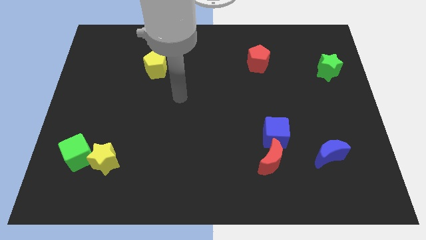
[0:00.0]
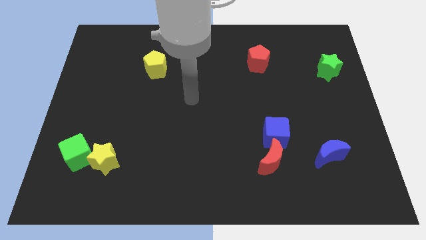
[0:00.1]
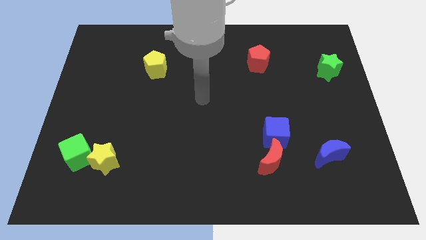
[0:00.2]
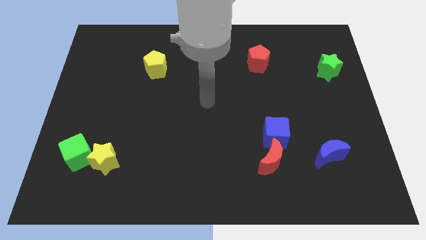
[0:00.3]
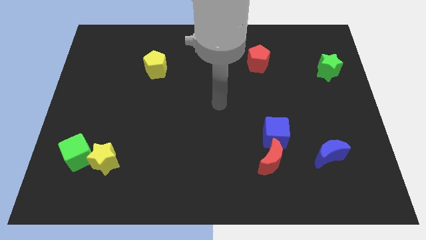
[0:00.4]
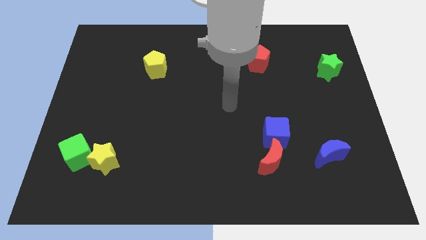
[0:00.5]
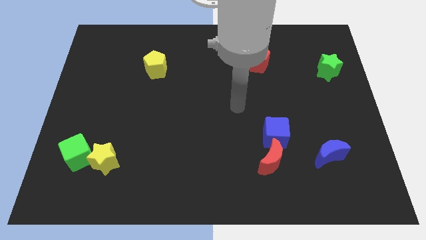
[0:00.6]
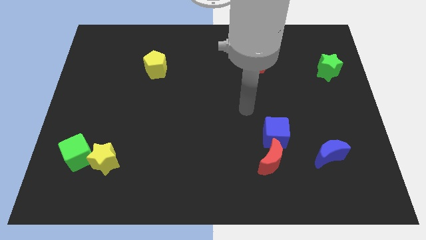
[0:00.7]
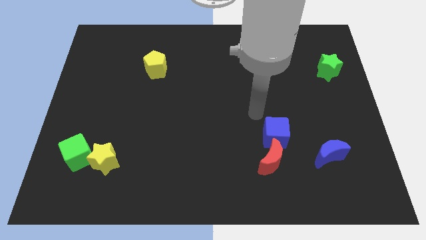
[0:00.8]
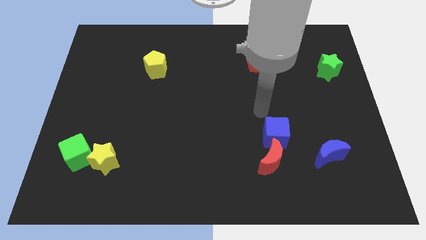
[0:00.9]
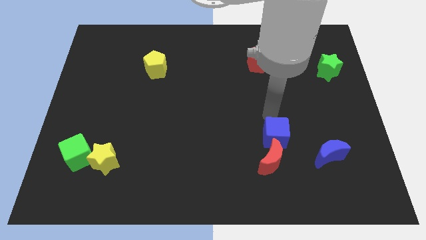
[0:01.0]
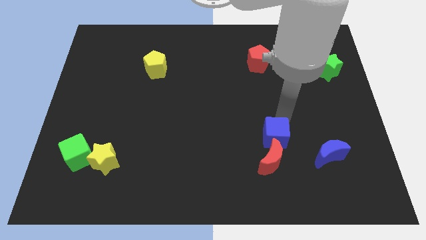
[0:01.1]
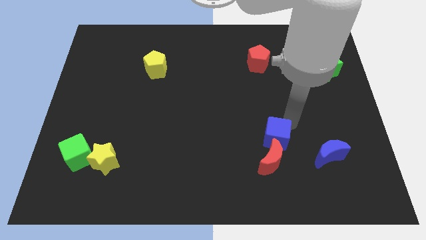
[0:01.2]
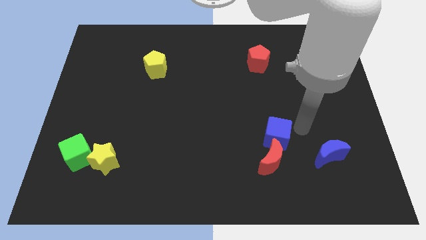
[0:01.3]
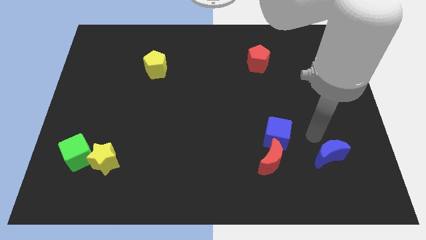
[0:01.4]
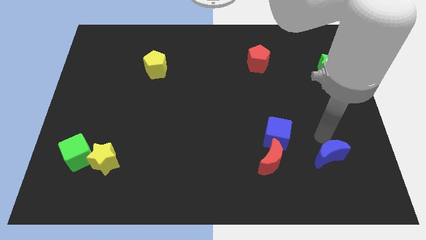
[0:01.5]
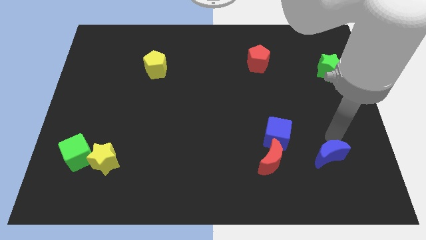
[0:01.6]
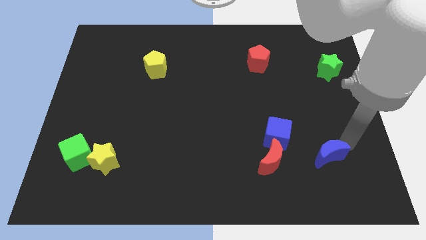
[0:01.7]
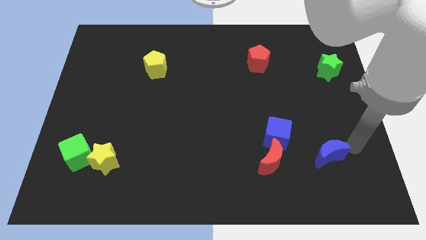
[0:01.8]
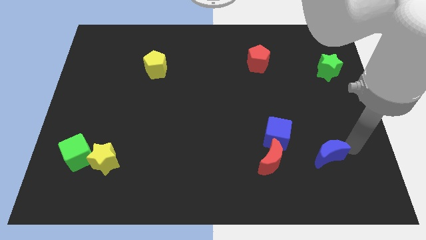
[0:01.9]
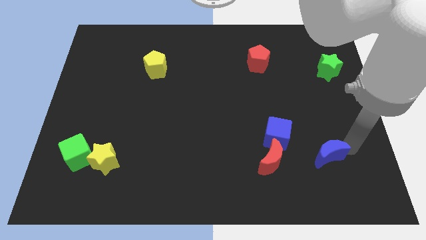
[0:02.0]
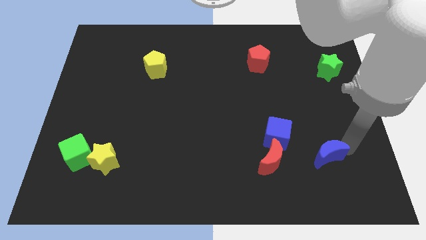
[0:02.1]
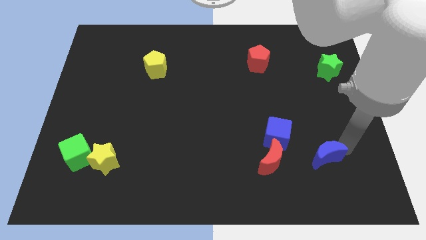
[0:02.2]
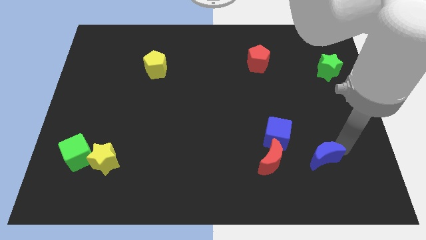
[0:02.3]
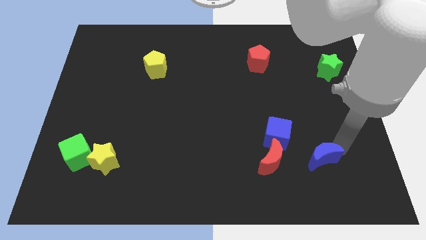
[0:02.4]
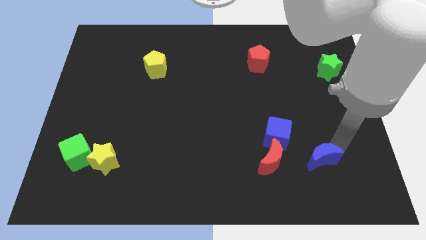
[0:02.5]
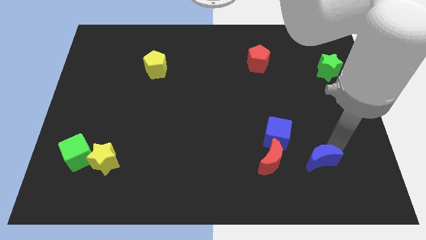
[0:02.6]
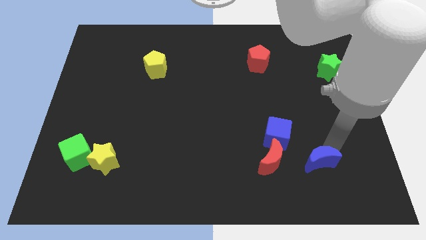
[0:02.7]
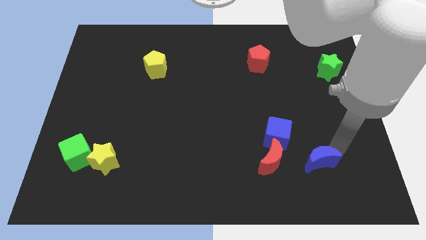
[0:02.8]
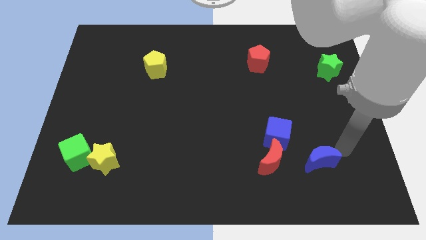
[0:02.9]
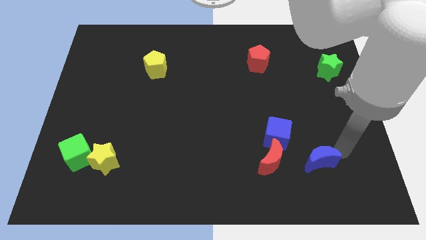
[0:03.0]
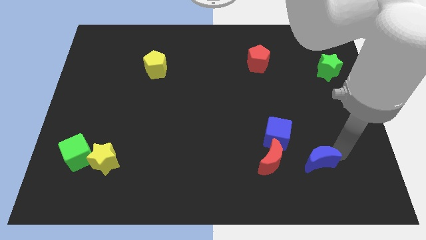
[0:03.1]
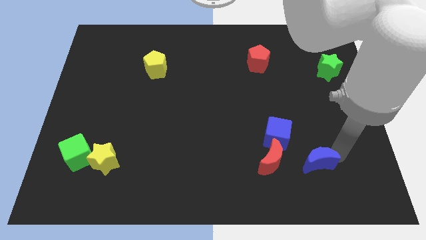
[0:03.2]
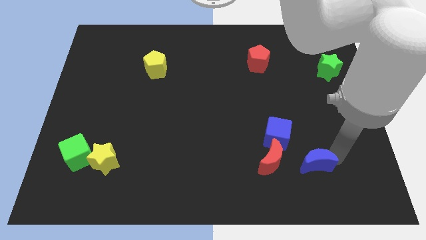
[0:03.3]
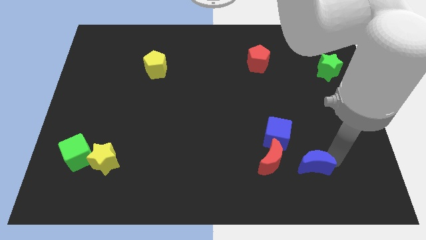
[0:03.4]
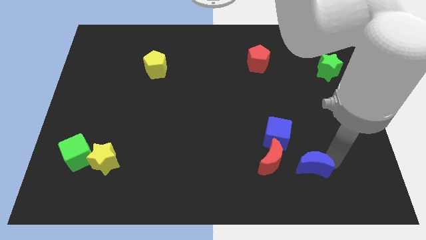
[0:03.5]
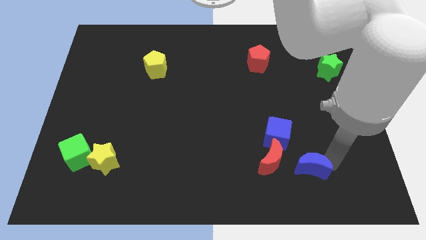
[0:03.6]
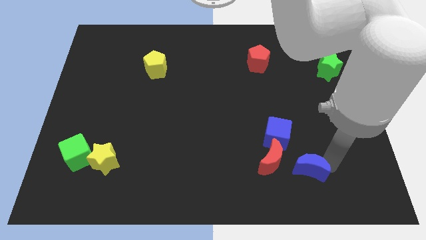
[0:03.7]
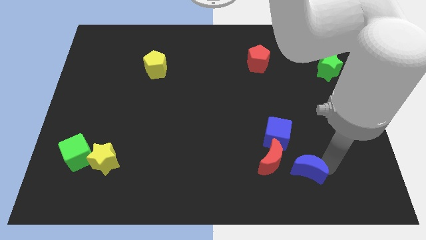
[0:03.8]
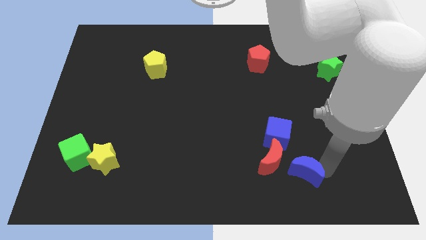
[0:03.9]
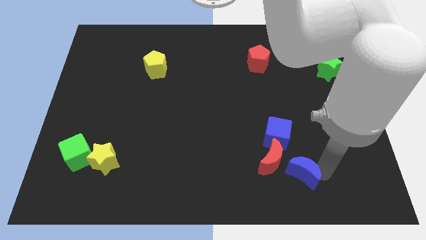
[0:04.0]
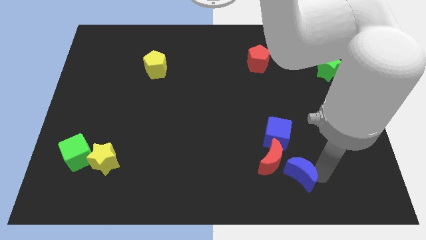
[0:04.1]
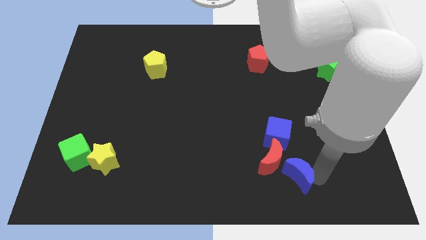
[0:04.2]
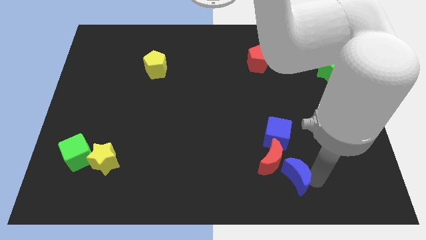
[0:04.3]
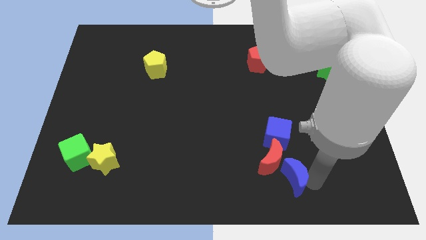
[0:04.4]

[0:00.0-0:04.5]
push the blue moon a bit left

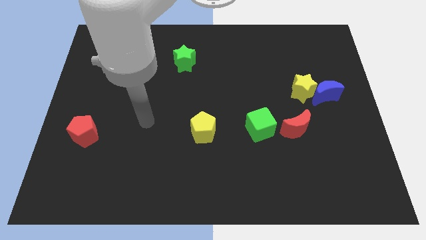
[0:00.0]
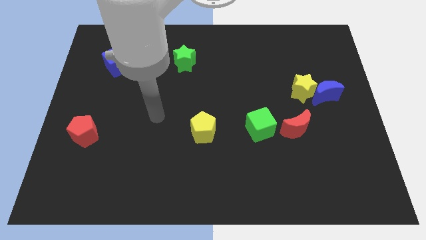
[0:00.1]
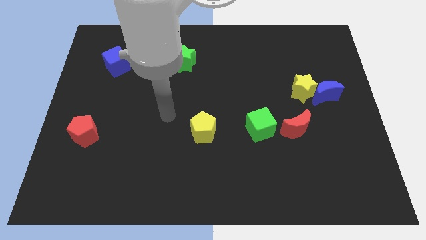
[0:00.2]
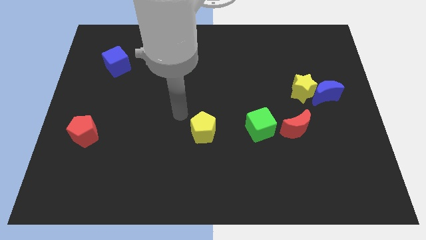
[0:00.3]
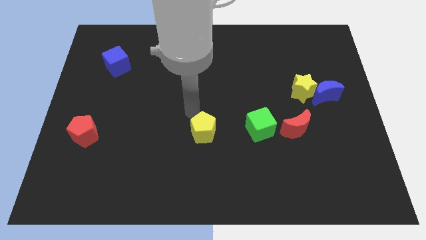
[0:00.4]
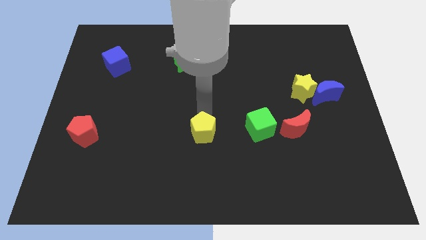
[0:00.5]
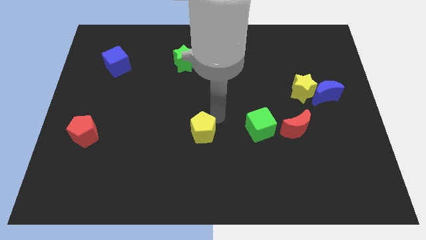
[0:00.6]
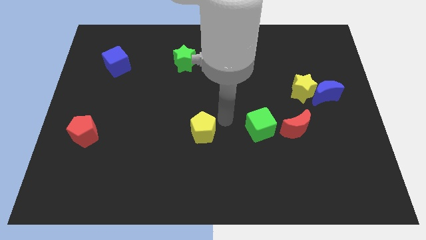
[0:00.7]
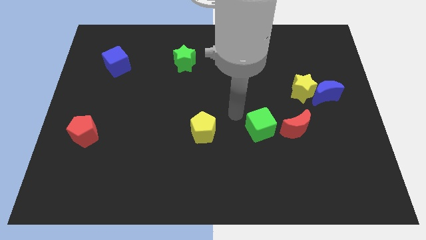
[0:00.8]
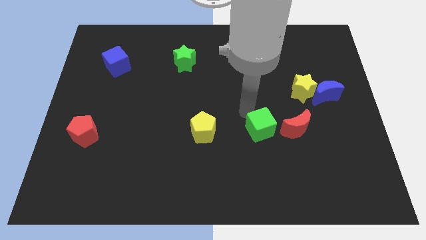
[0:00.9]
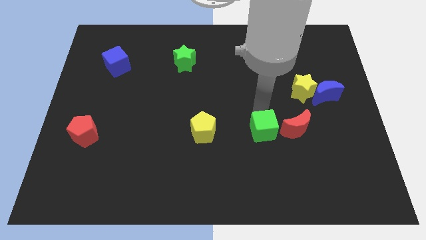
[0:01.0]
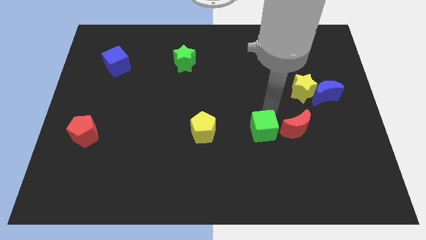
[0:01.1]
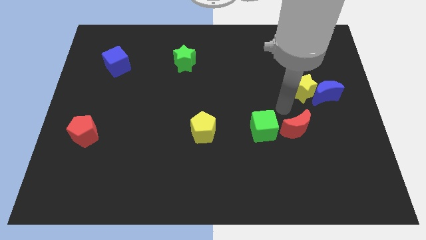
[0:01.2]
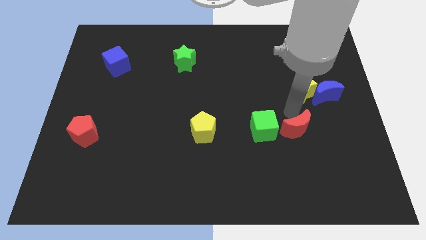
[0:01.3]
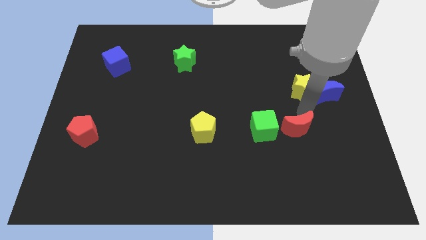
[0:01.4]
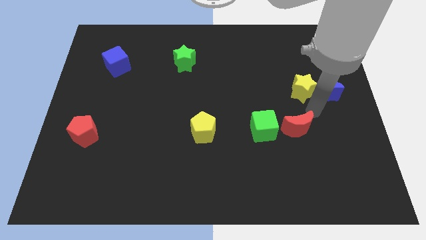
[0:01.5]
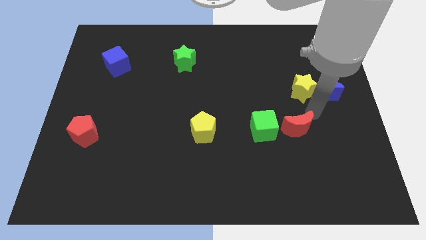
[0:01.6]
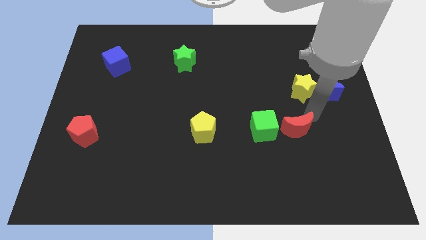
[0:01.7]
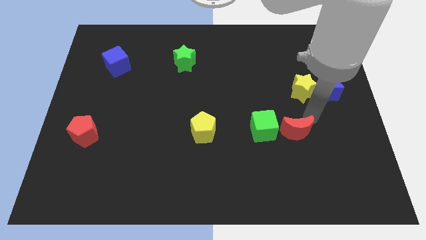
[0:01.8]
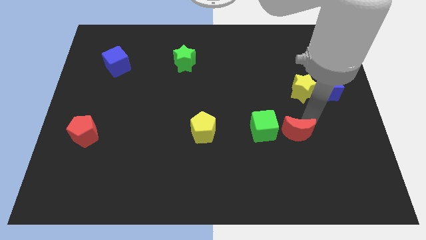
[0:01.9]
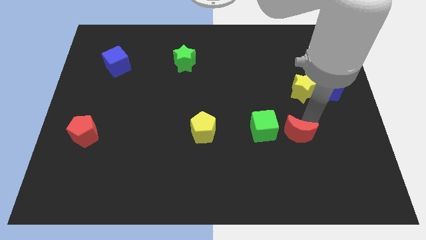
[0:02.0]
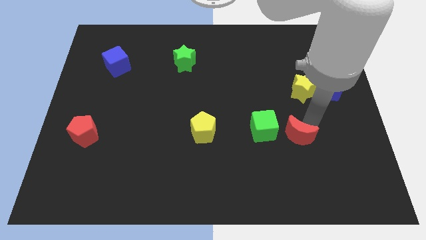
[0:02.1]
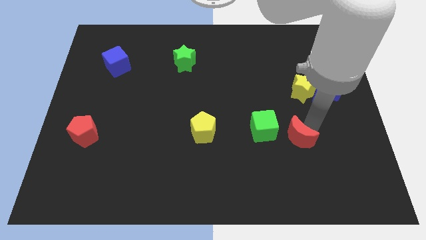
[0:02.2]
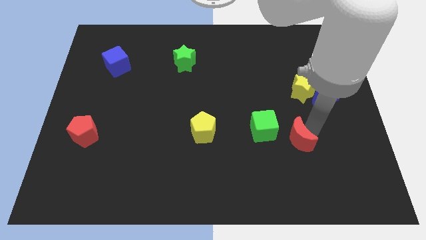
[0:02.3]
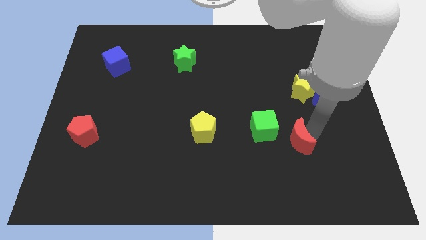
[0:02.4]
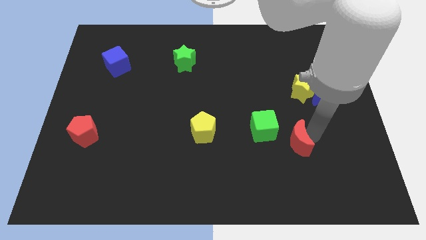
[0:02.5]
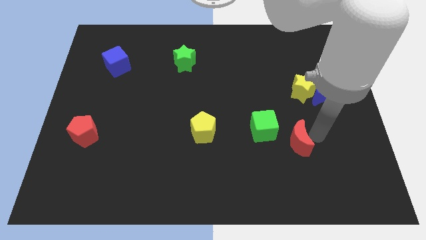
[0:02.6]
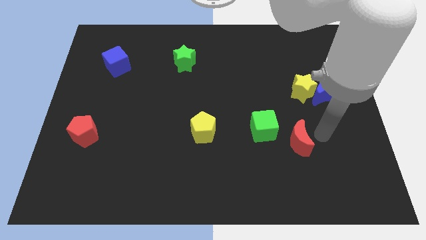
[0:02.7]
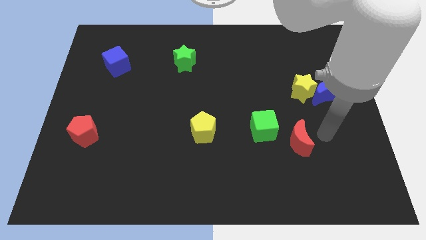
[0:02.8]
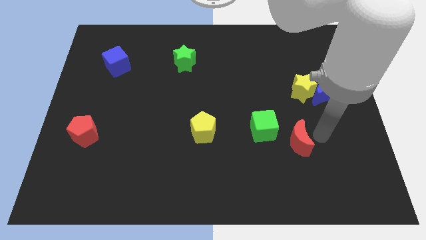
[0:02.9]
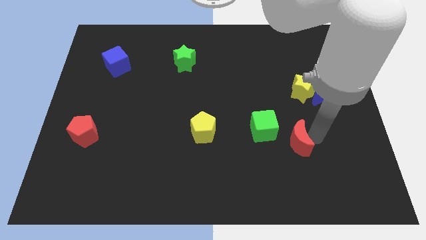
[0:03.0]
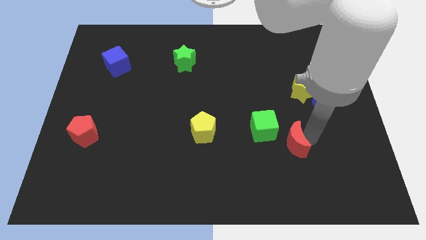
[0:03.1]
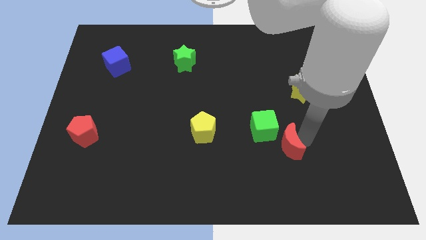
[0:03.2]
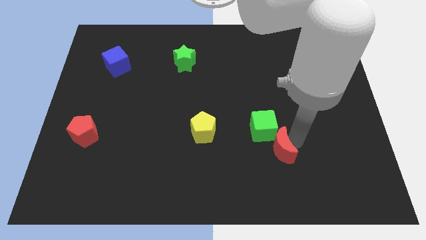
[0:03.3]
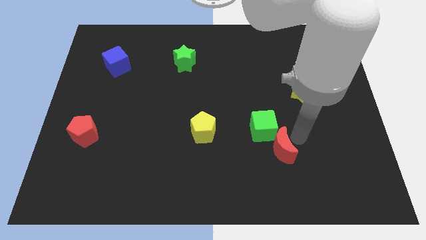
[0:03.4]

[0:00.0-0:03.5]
move the red moon somewhat down and then to the left

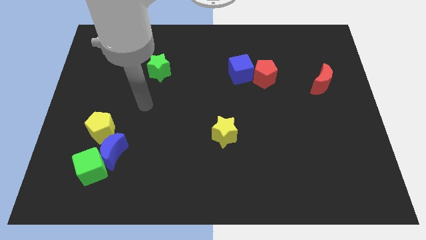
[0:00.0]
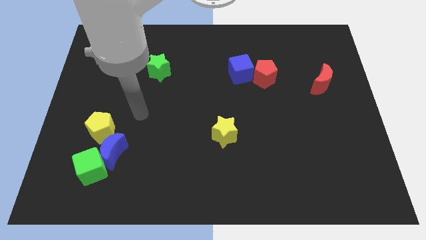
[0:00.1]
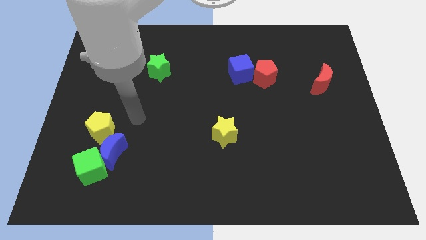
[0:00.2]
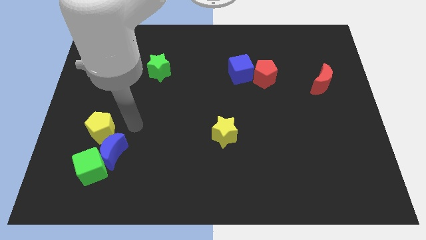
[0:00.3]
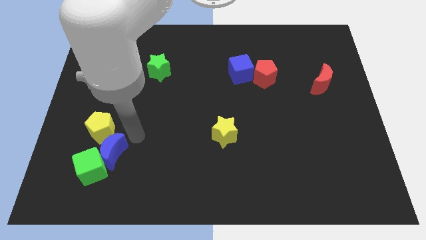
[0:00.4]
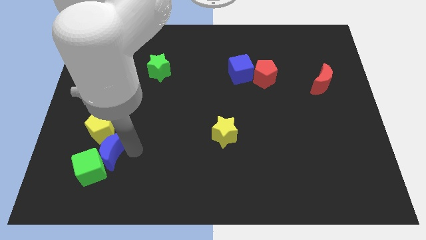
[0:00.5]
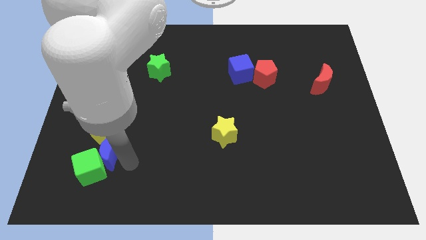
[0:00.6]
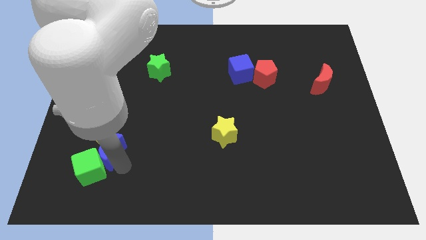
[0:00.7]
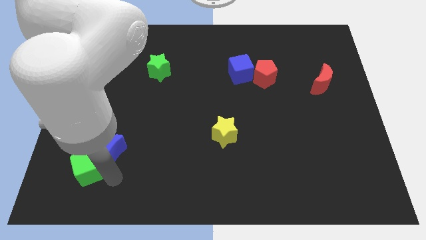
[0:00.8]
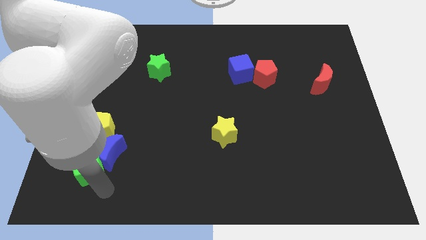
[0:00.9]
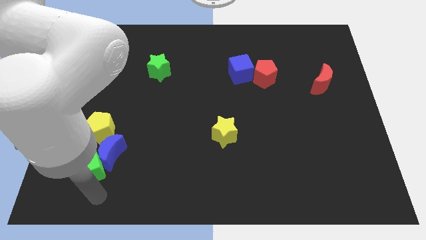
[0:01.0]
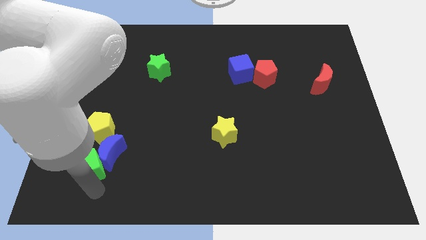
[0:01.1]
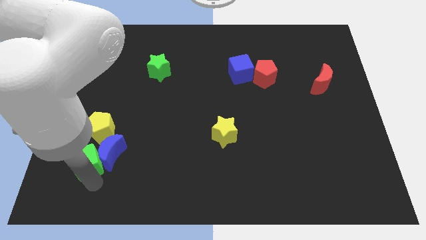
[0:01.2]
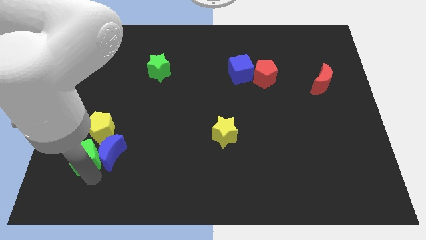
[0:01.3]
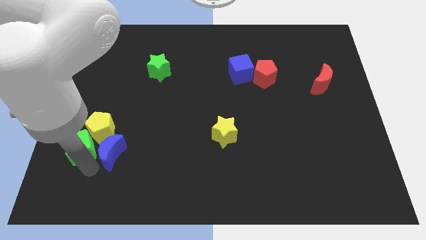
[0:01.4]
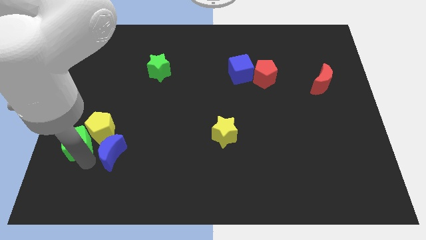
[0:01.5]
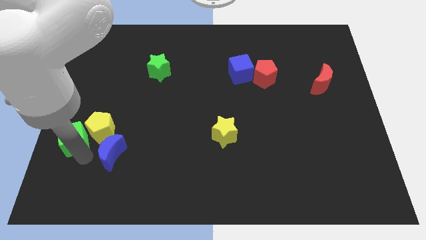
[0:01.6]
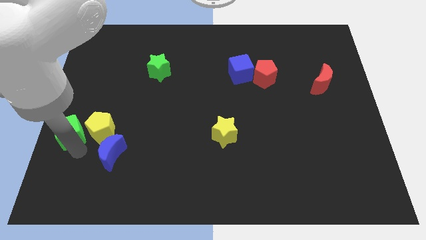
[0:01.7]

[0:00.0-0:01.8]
push the green cube upwards a little
